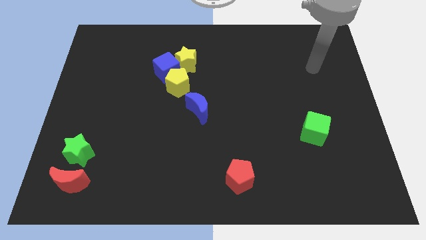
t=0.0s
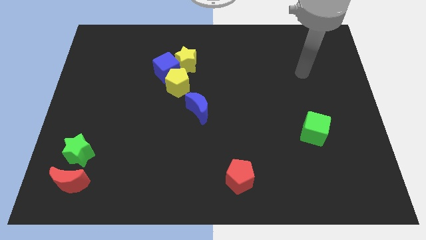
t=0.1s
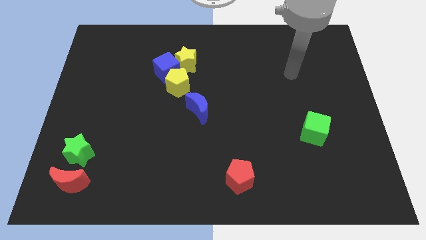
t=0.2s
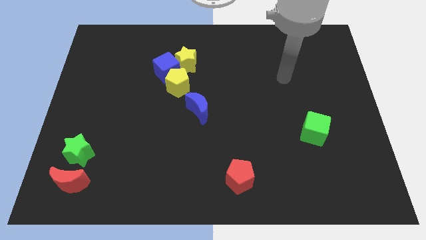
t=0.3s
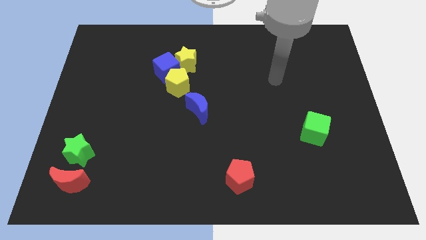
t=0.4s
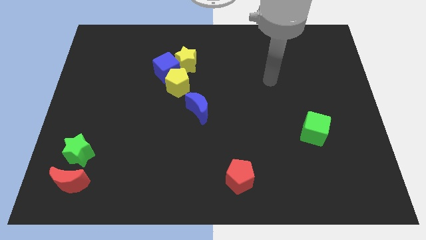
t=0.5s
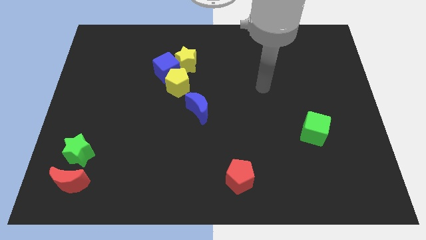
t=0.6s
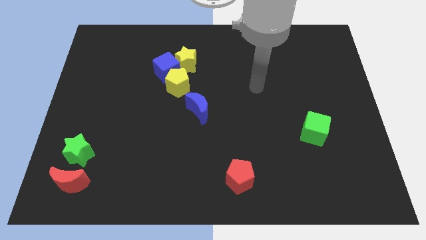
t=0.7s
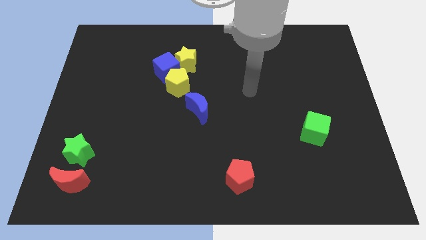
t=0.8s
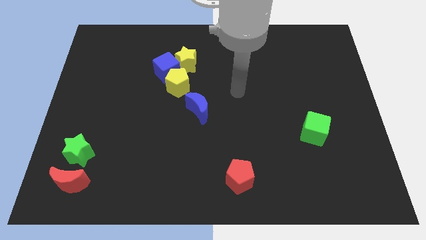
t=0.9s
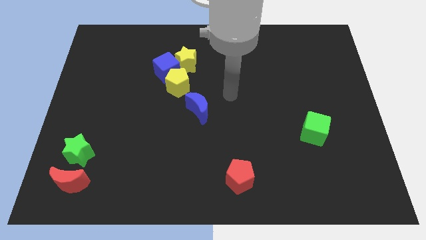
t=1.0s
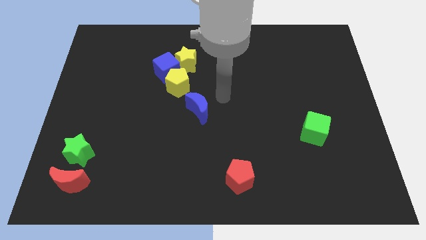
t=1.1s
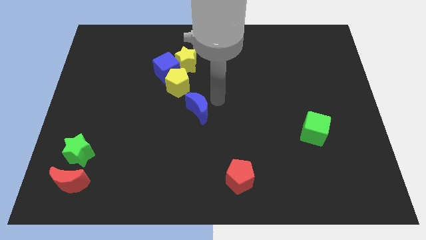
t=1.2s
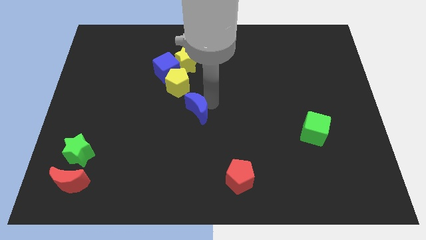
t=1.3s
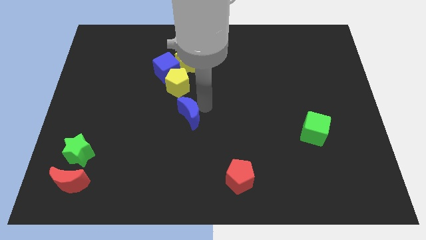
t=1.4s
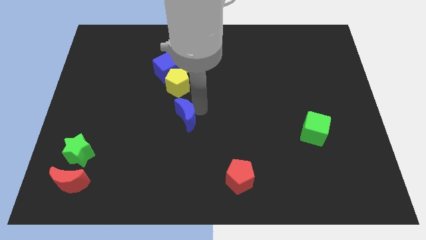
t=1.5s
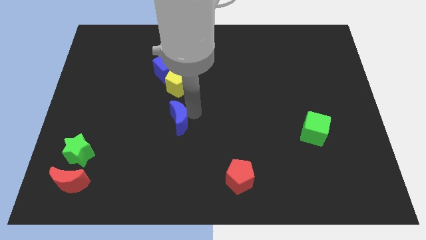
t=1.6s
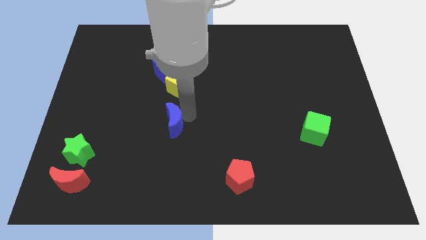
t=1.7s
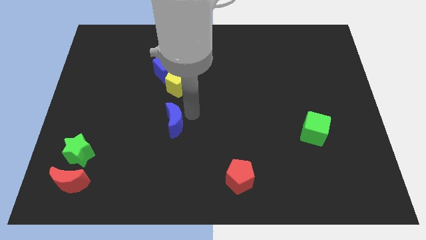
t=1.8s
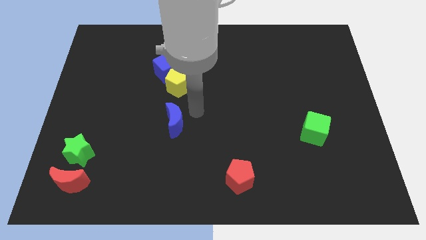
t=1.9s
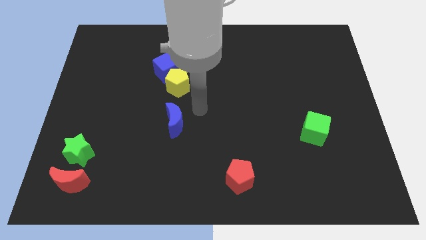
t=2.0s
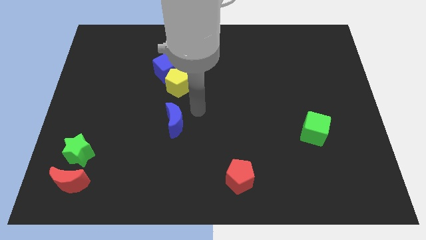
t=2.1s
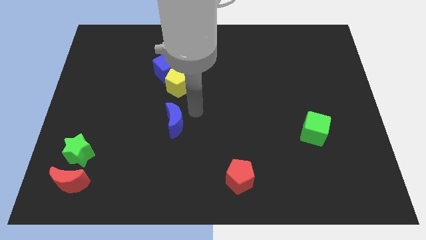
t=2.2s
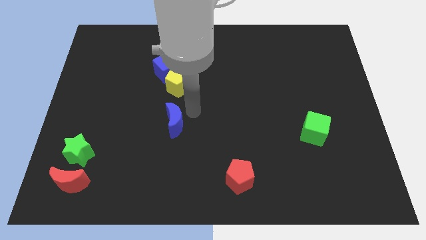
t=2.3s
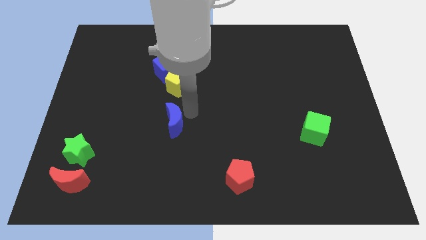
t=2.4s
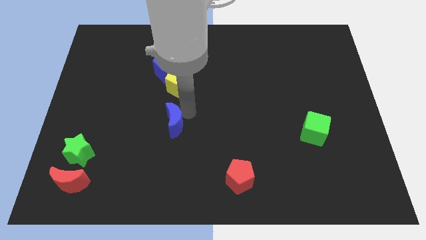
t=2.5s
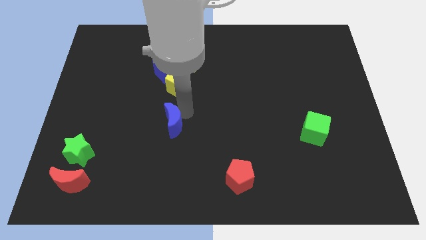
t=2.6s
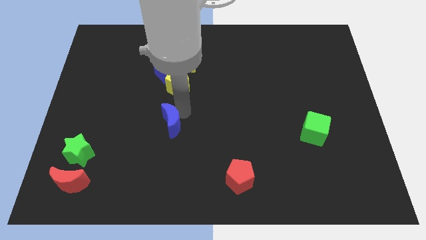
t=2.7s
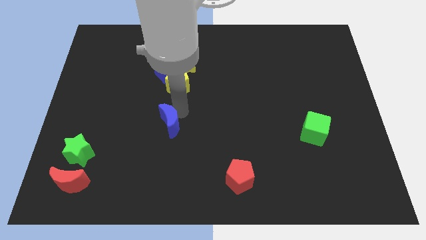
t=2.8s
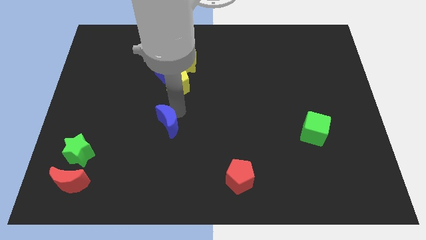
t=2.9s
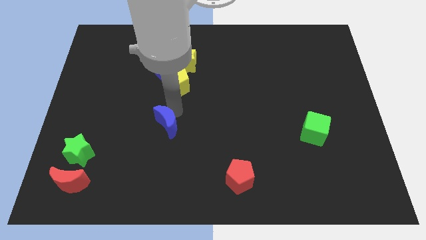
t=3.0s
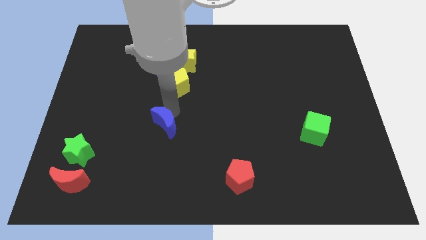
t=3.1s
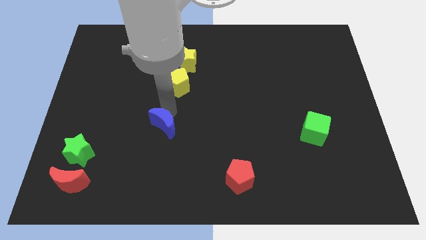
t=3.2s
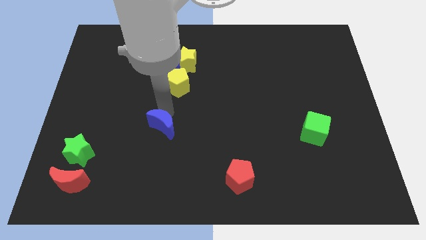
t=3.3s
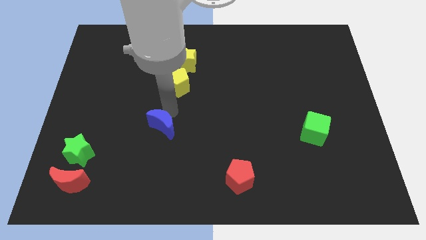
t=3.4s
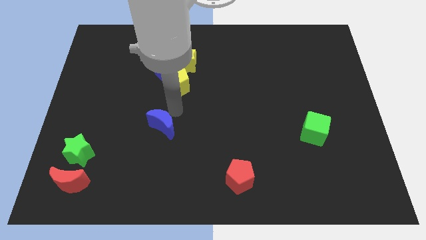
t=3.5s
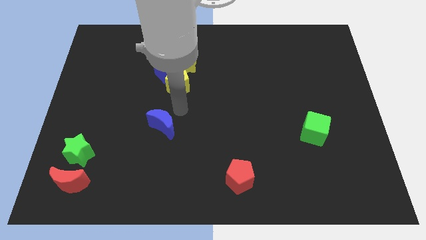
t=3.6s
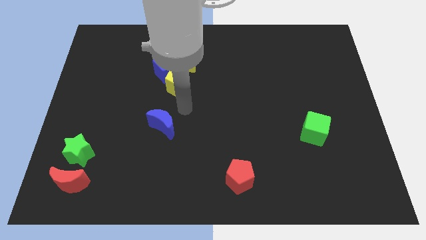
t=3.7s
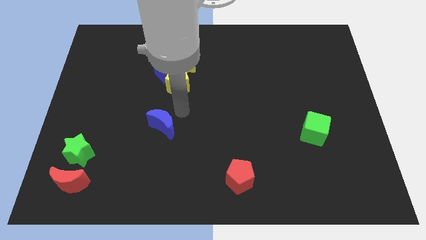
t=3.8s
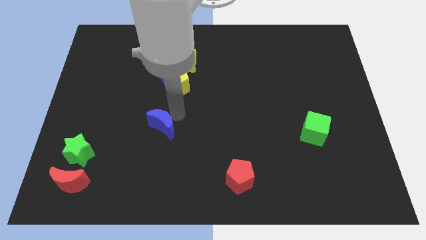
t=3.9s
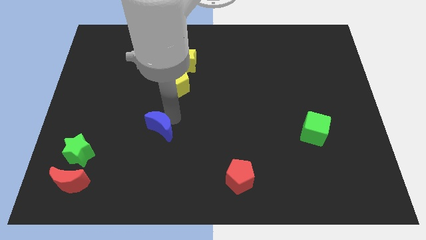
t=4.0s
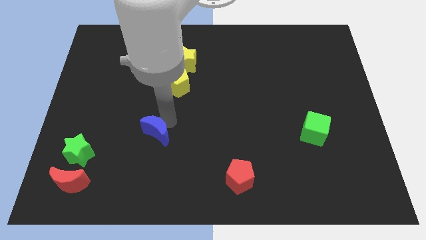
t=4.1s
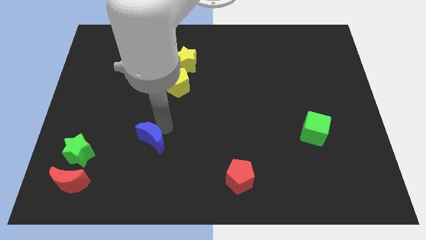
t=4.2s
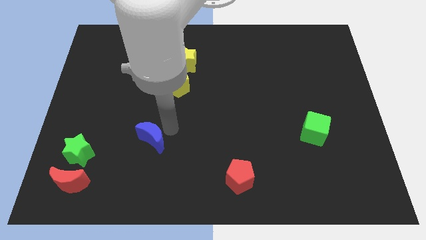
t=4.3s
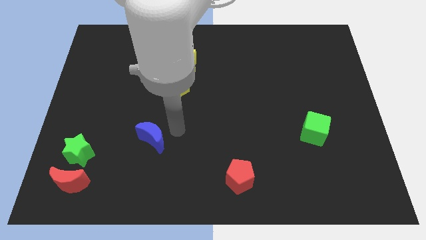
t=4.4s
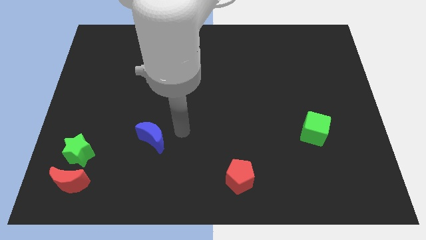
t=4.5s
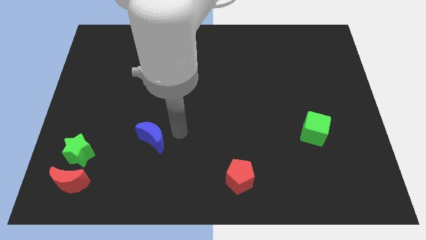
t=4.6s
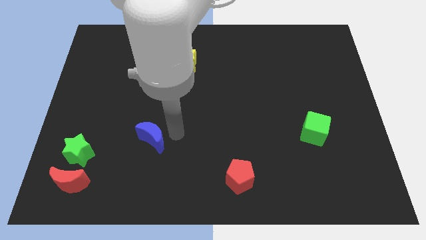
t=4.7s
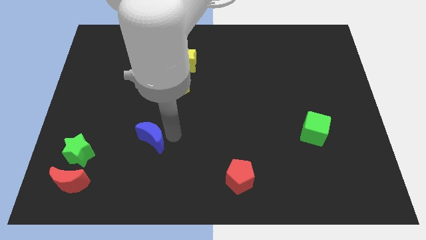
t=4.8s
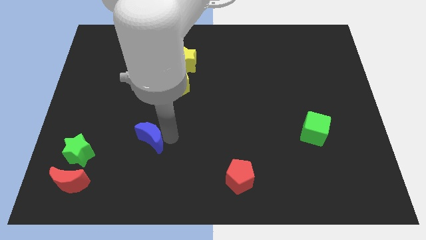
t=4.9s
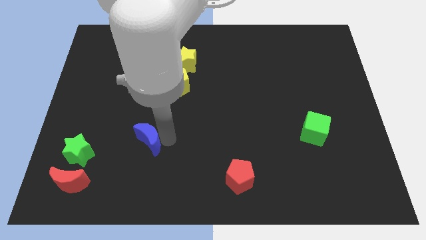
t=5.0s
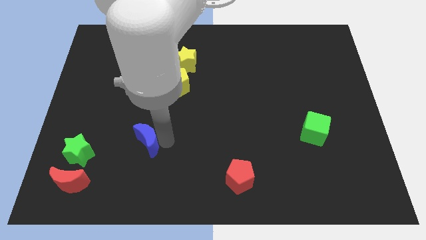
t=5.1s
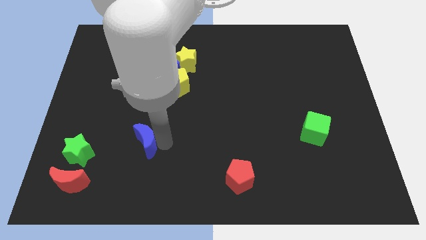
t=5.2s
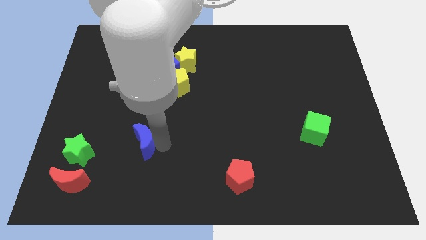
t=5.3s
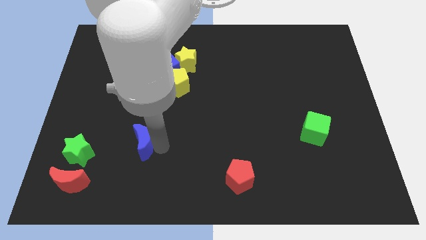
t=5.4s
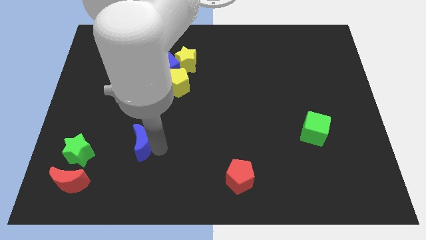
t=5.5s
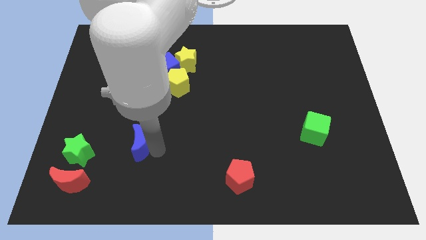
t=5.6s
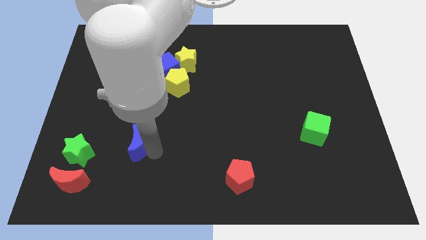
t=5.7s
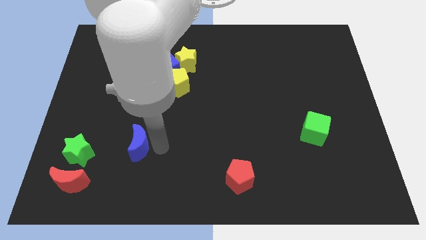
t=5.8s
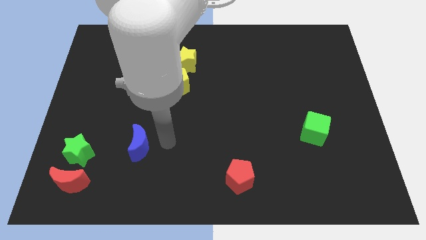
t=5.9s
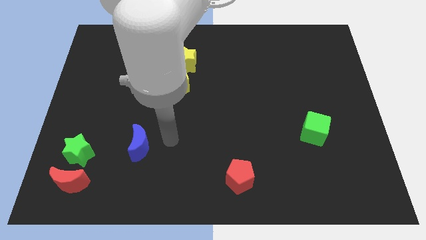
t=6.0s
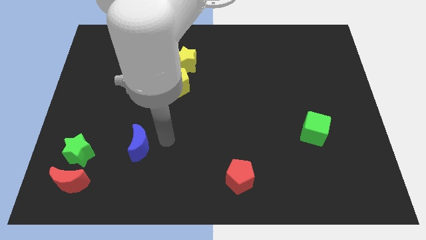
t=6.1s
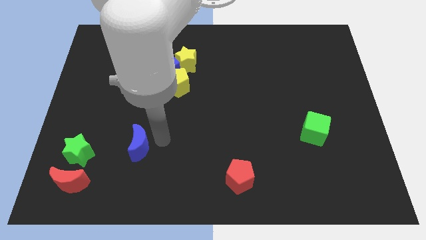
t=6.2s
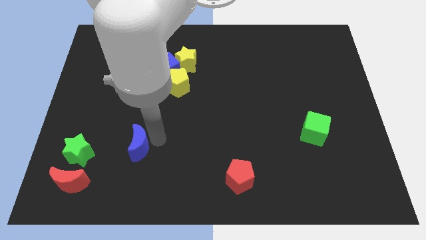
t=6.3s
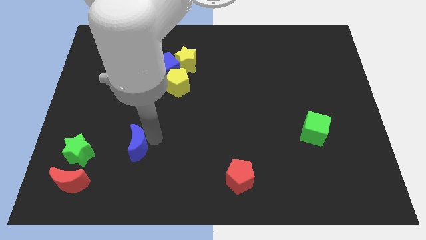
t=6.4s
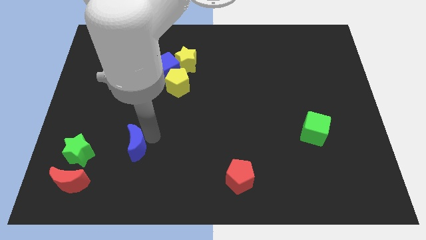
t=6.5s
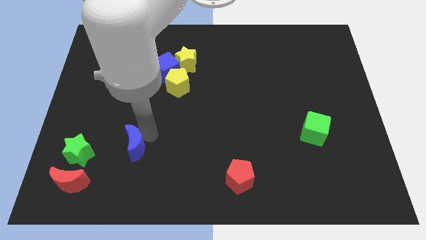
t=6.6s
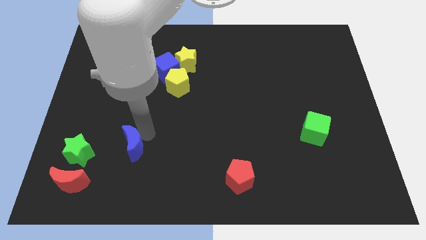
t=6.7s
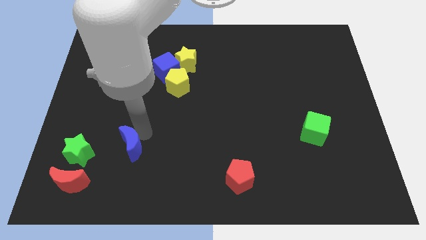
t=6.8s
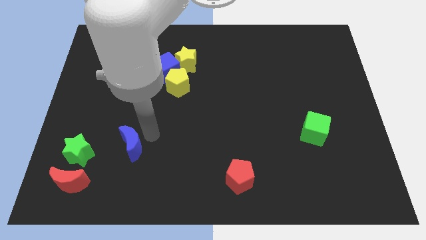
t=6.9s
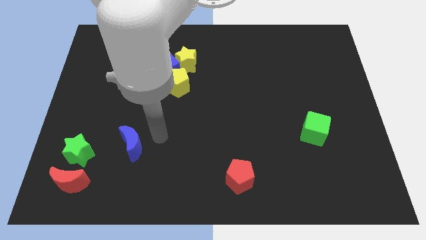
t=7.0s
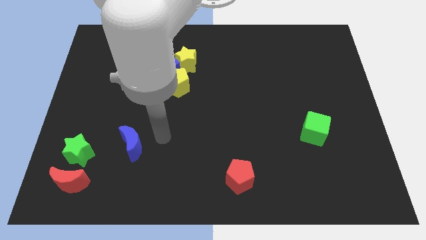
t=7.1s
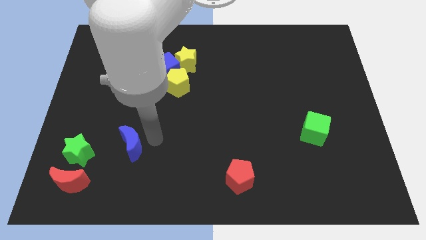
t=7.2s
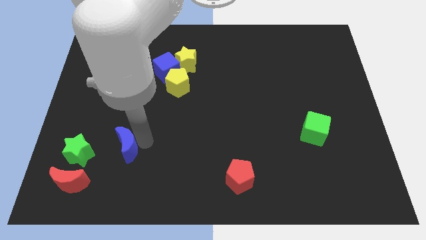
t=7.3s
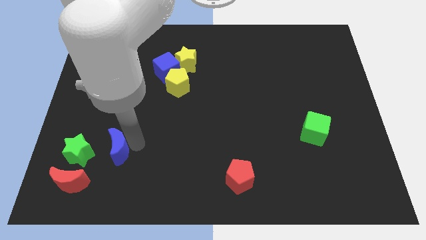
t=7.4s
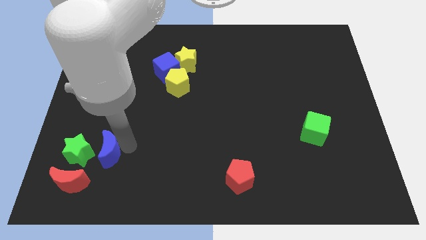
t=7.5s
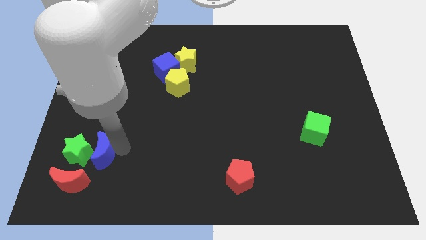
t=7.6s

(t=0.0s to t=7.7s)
put the blue moon close to the green star
